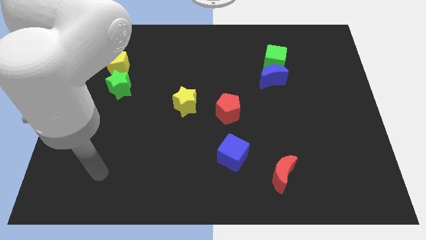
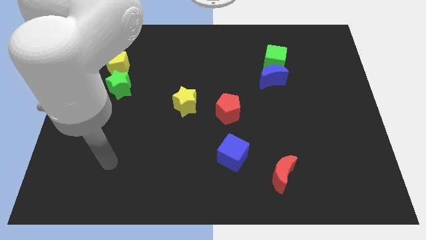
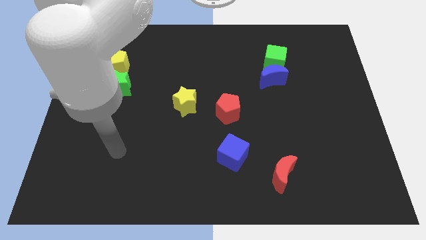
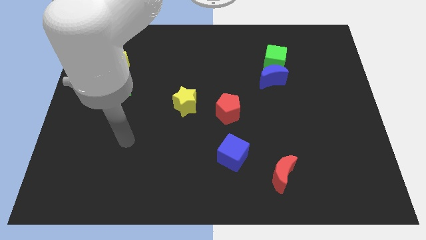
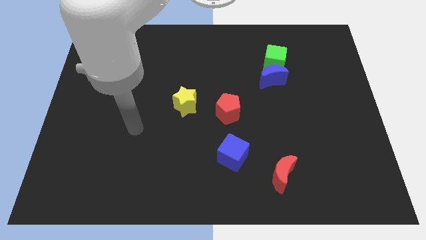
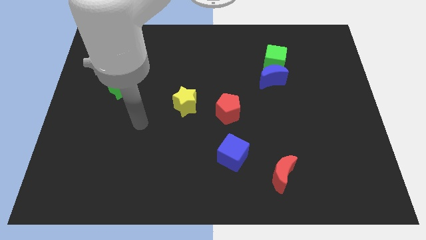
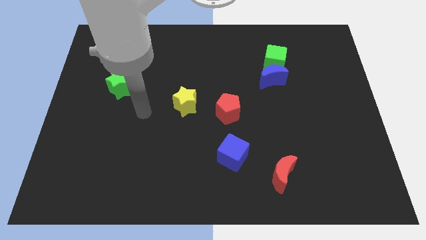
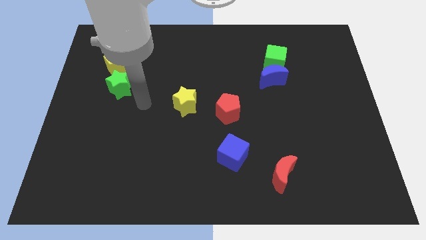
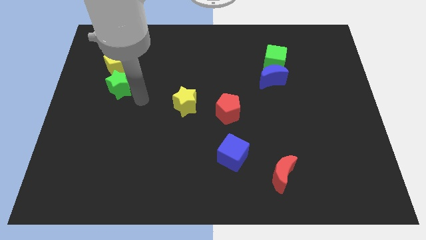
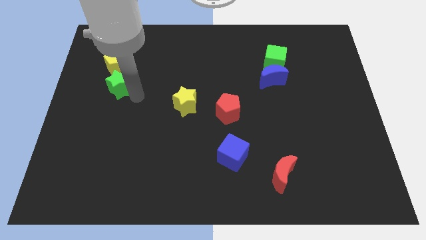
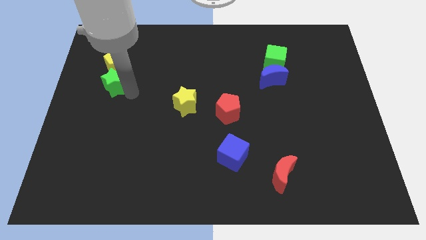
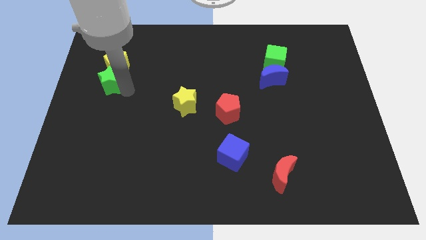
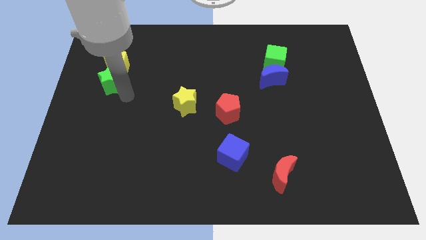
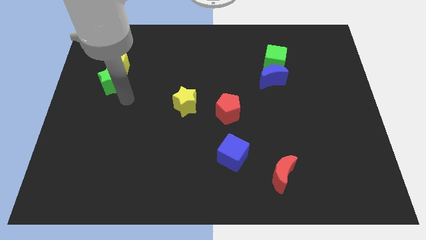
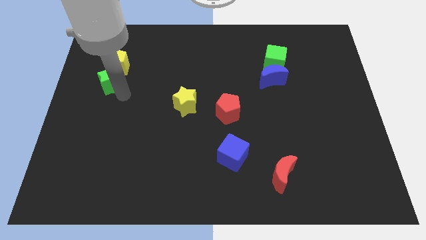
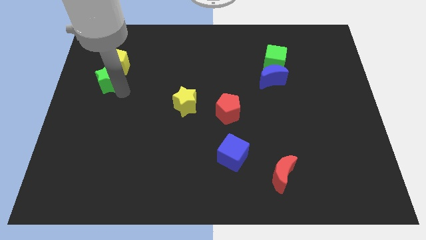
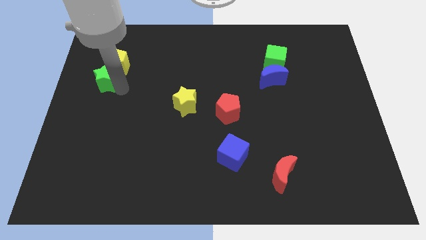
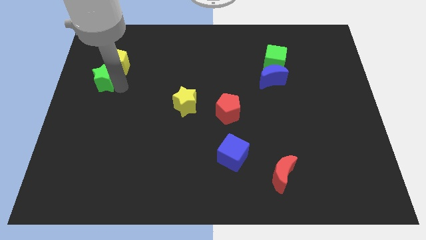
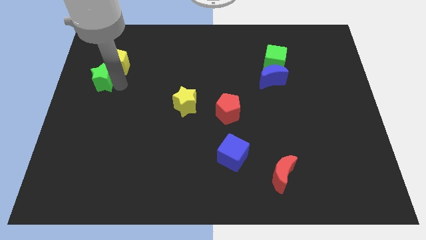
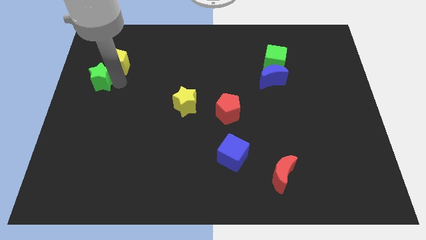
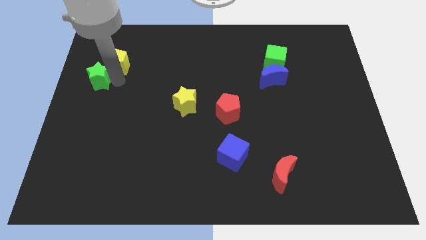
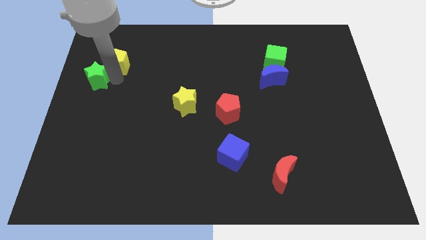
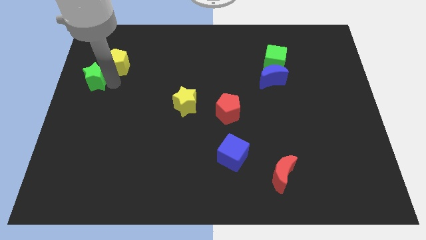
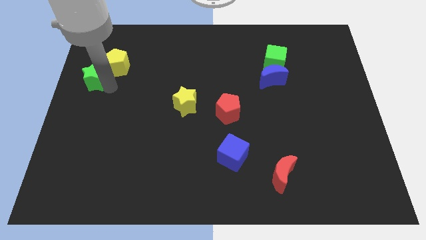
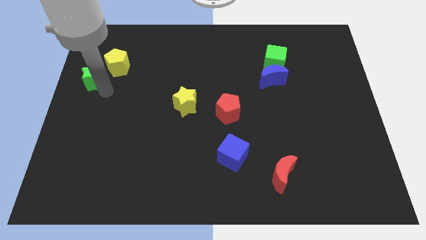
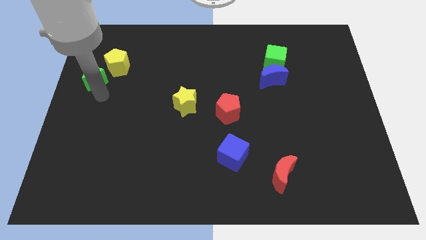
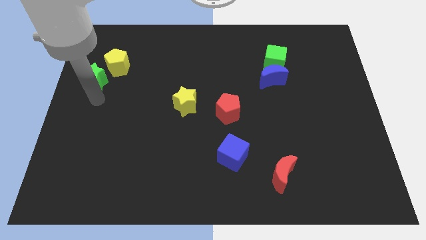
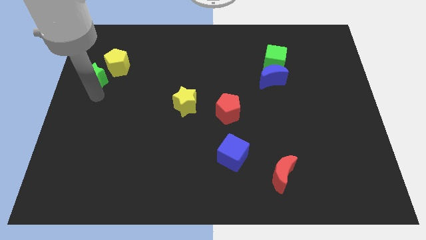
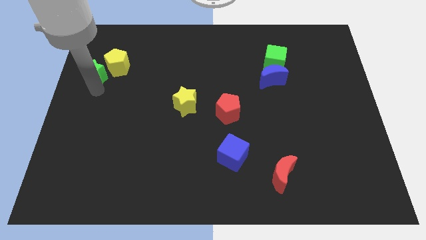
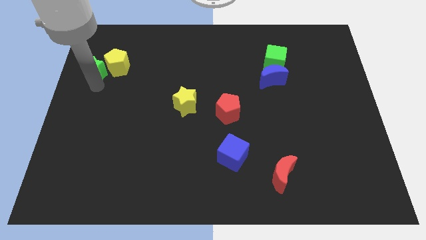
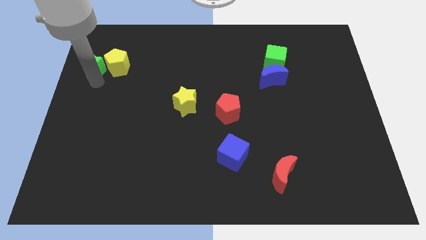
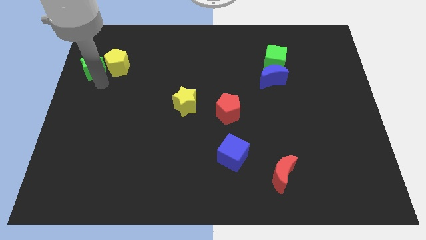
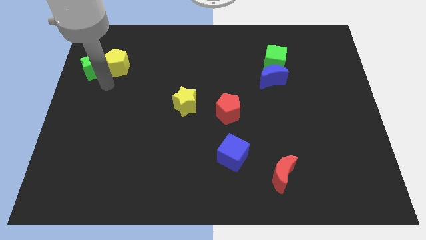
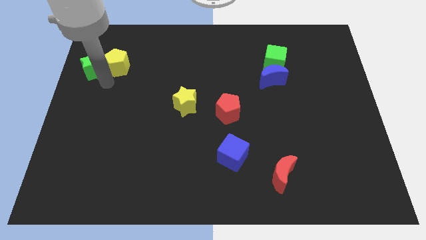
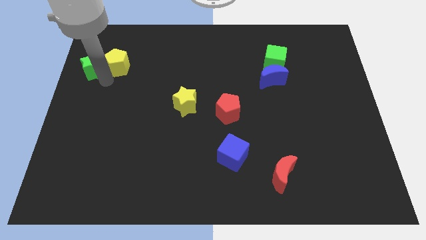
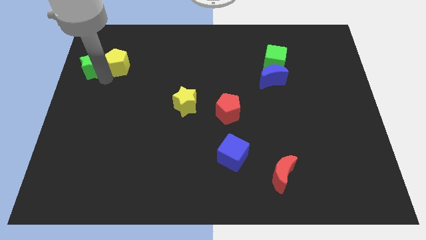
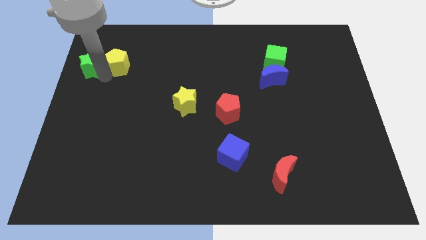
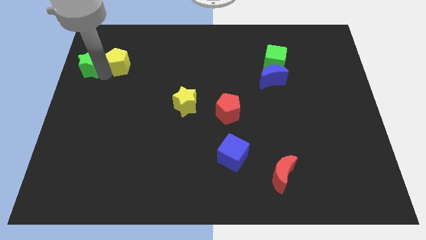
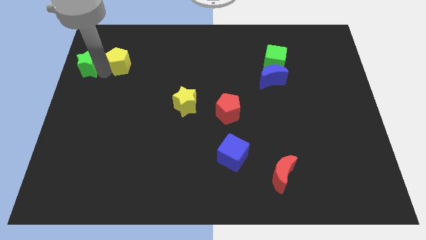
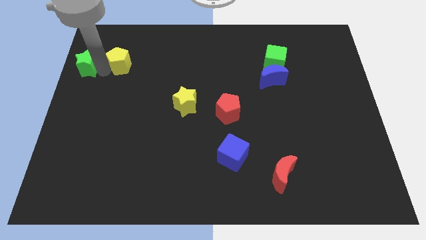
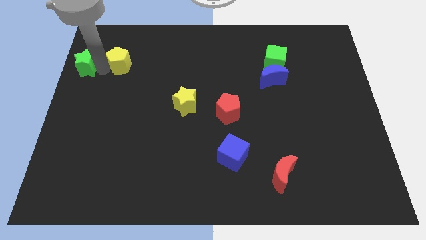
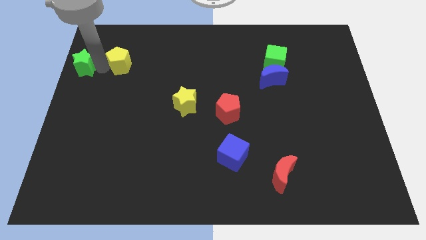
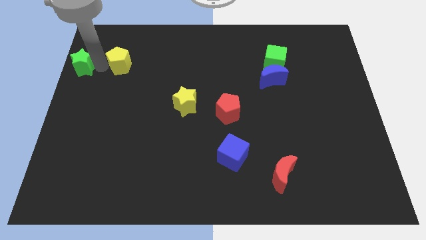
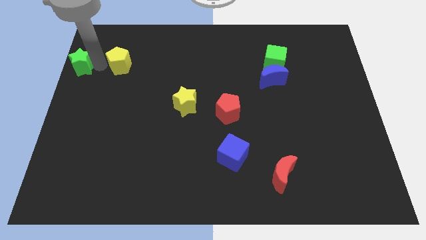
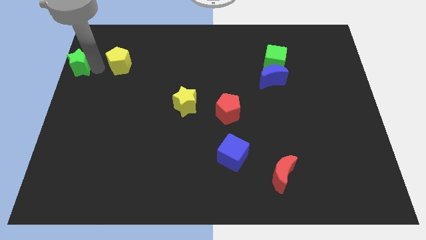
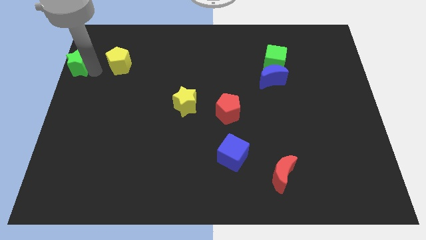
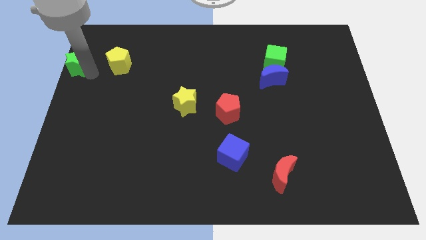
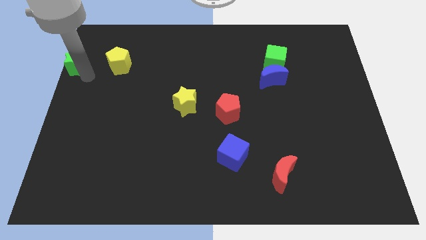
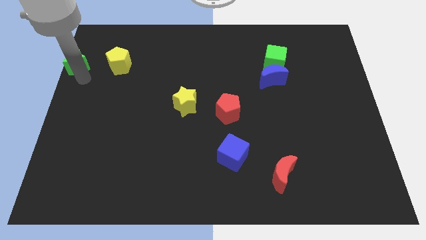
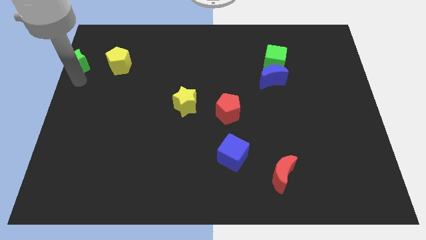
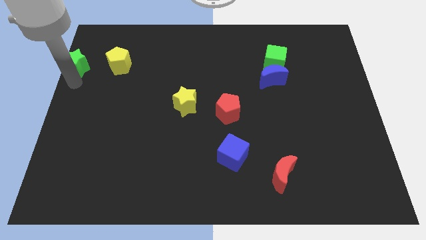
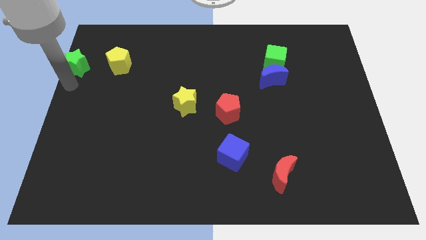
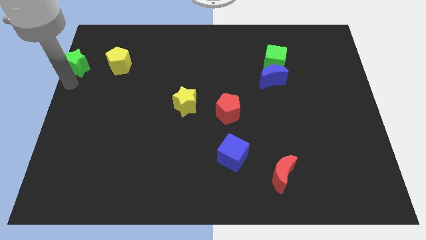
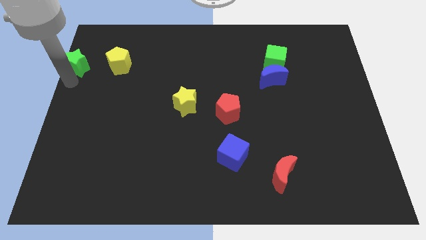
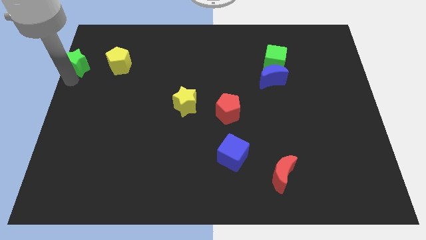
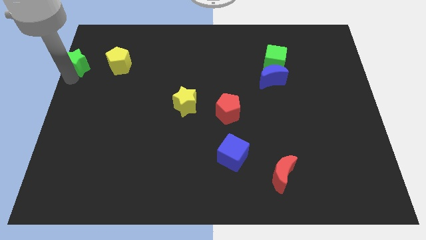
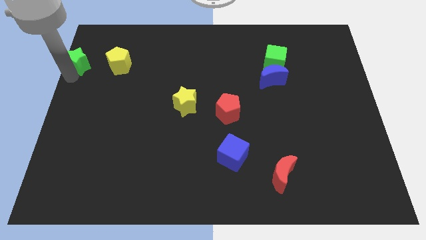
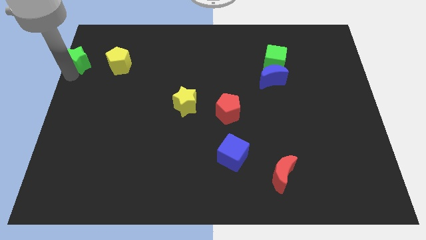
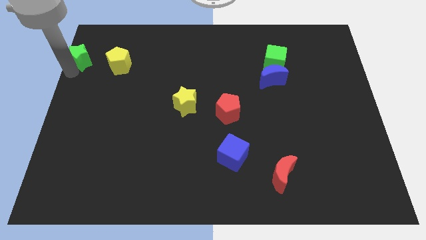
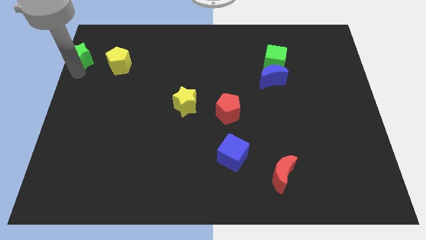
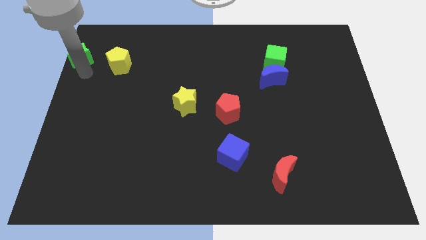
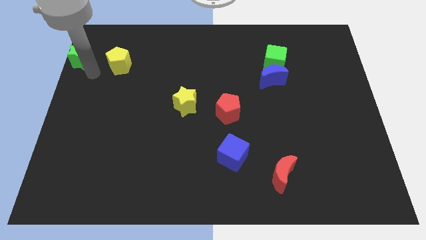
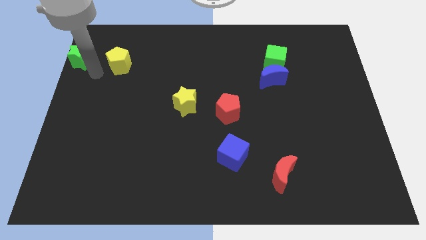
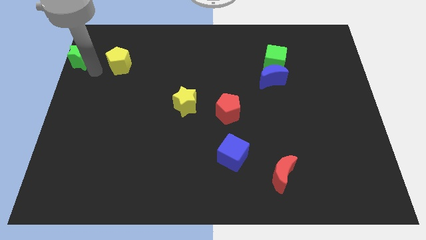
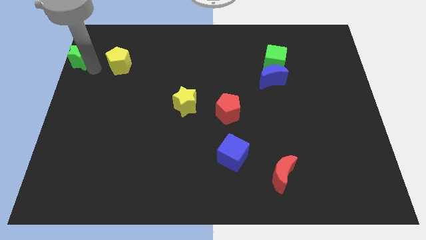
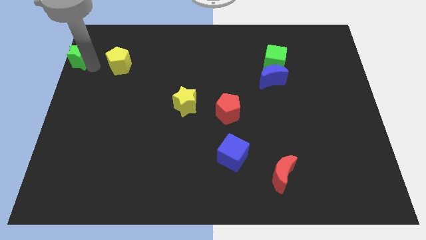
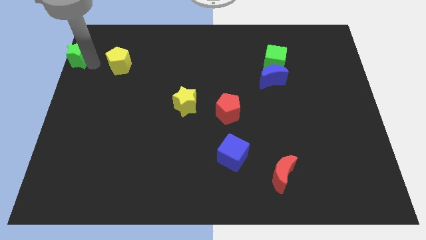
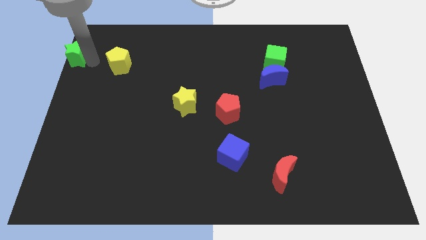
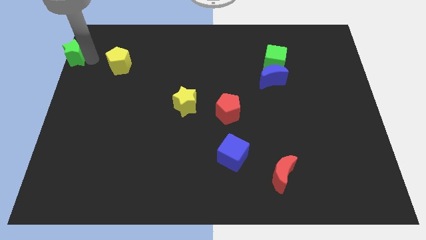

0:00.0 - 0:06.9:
move the green star to the upper left corner
